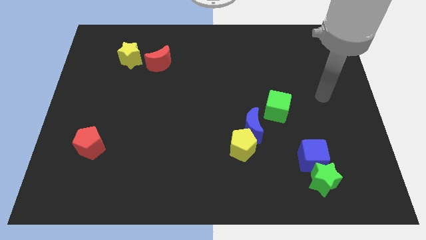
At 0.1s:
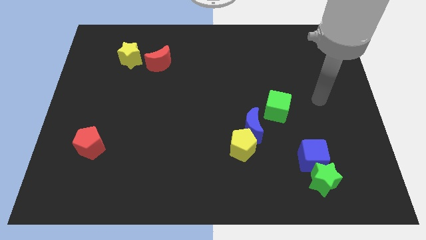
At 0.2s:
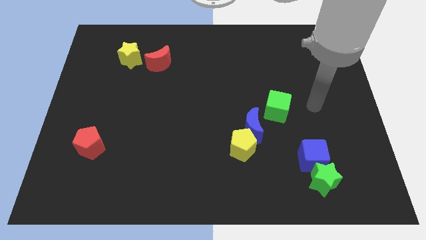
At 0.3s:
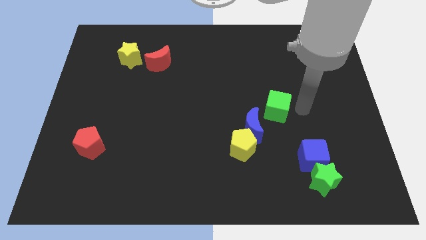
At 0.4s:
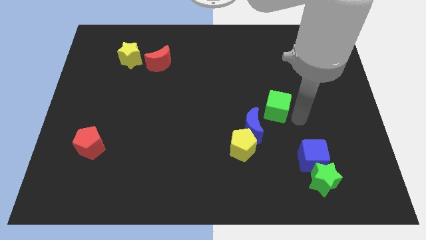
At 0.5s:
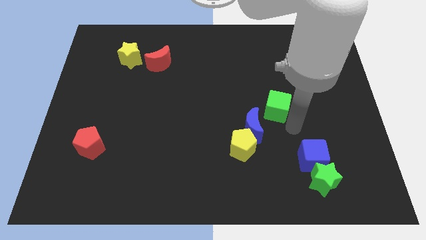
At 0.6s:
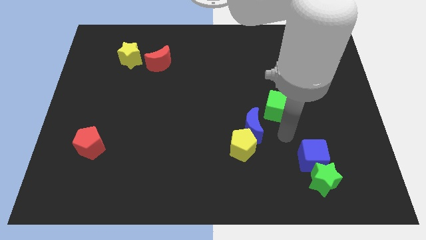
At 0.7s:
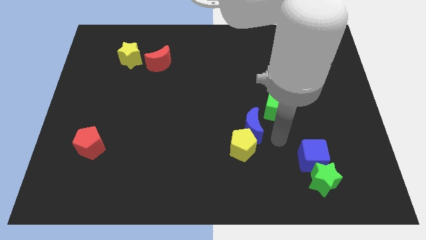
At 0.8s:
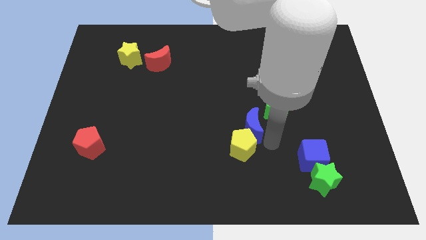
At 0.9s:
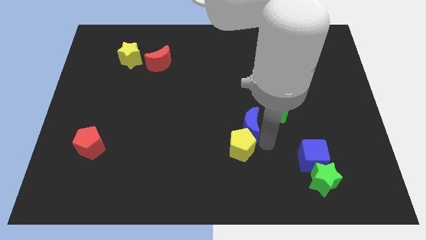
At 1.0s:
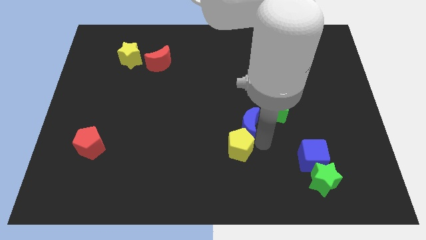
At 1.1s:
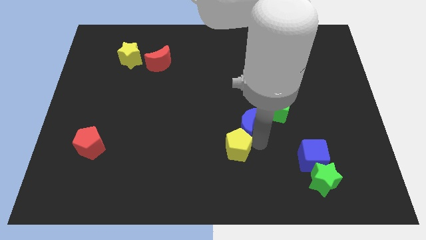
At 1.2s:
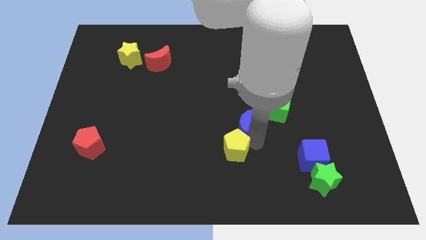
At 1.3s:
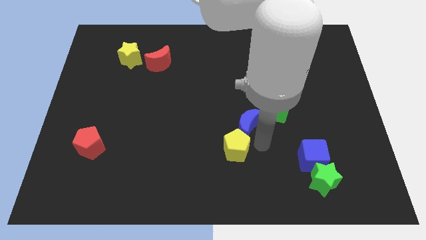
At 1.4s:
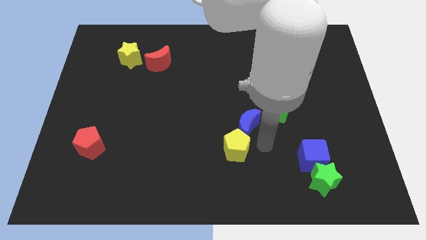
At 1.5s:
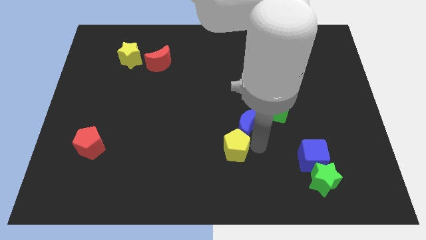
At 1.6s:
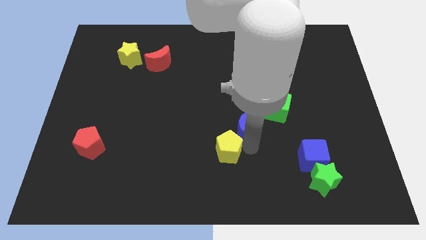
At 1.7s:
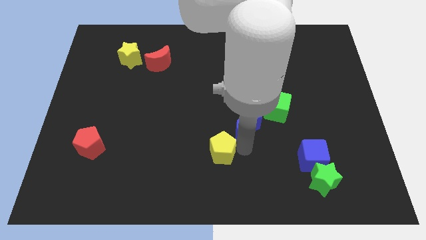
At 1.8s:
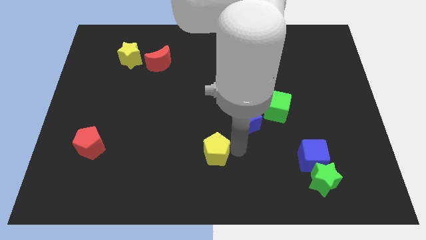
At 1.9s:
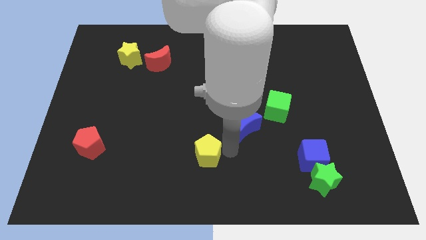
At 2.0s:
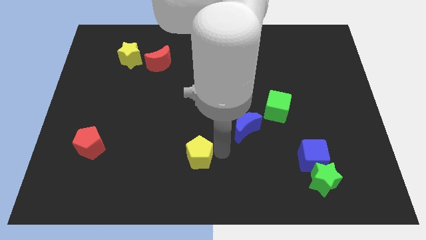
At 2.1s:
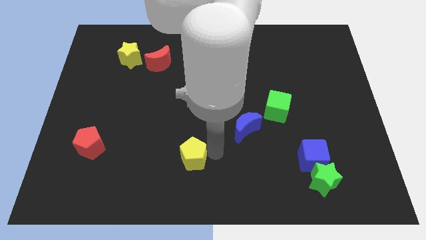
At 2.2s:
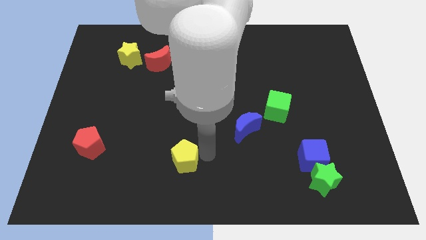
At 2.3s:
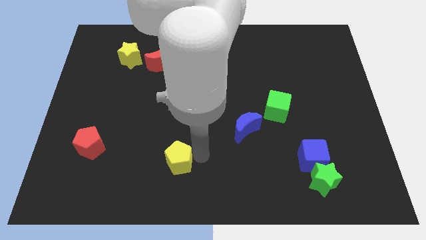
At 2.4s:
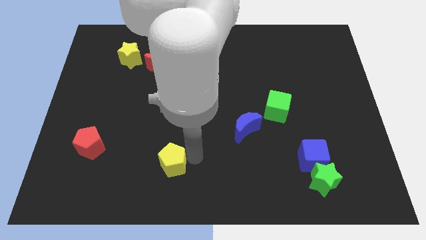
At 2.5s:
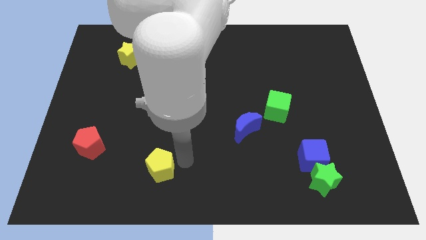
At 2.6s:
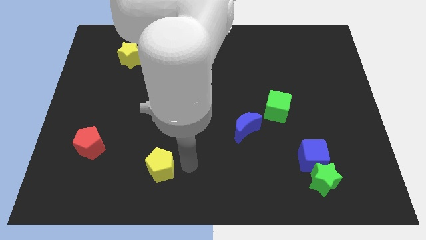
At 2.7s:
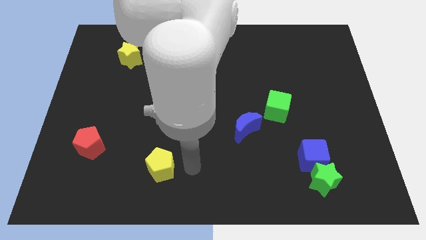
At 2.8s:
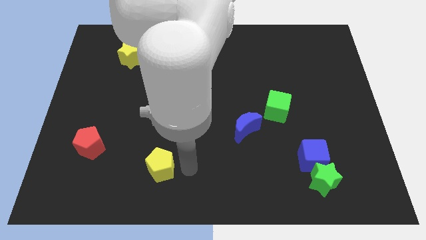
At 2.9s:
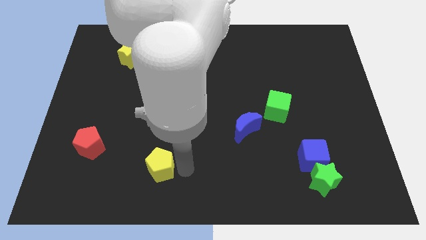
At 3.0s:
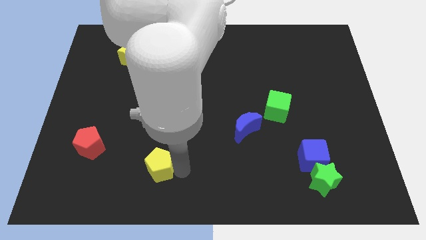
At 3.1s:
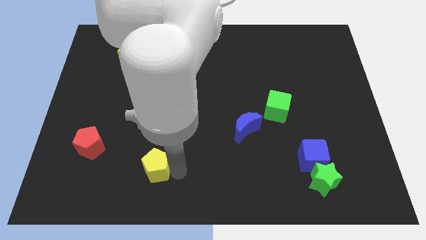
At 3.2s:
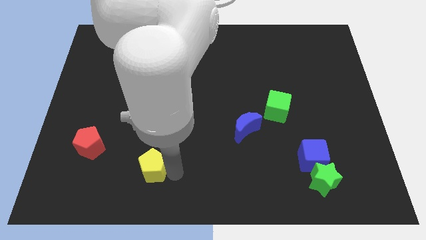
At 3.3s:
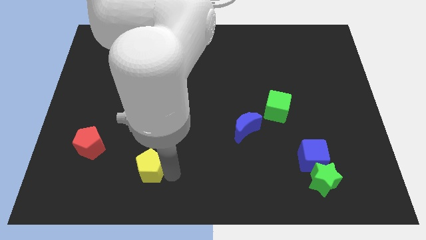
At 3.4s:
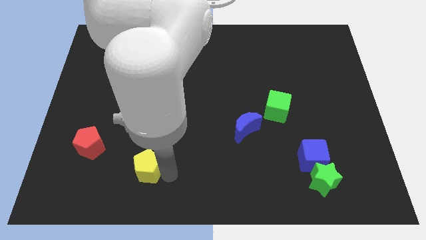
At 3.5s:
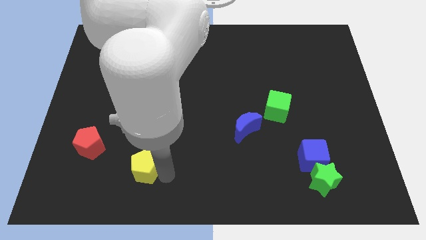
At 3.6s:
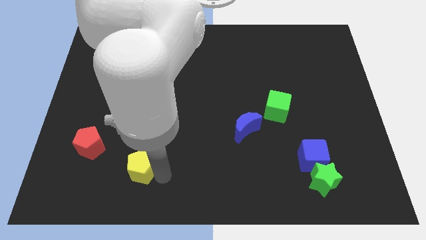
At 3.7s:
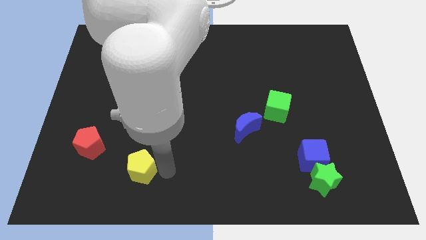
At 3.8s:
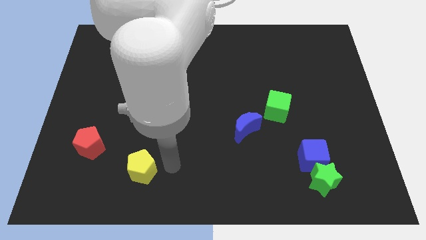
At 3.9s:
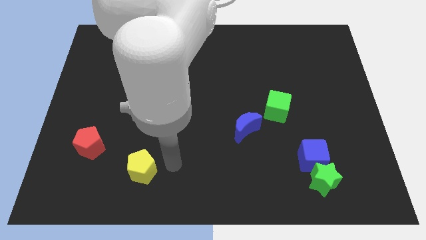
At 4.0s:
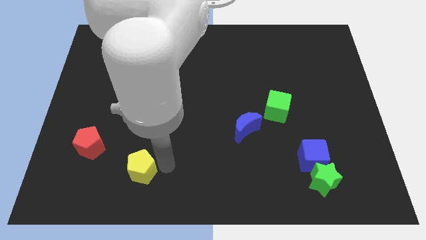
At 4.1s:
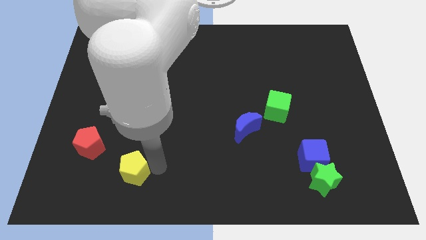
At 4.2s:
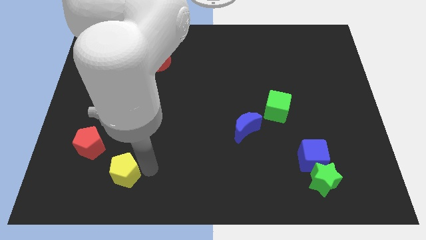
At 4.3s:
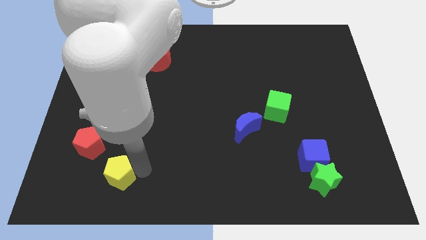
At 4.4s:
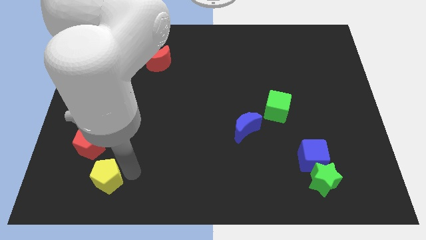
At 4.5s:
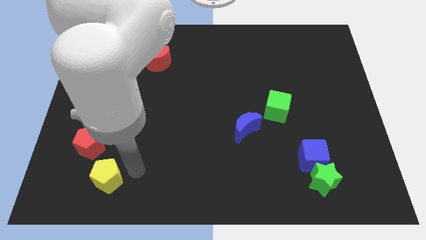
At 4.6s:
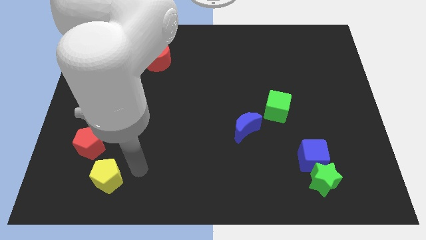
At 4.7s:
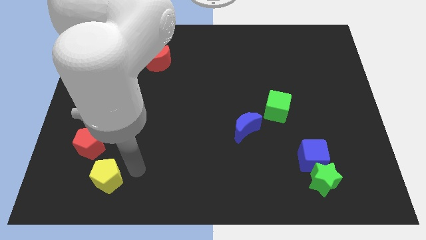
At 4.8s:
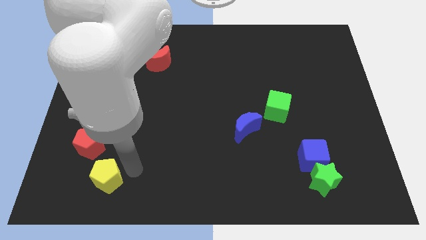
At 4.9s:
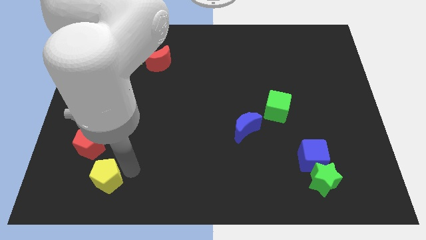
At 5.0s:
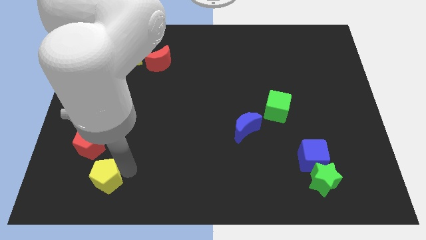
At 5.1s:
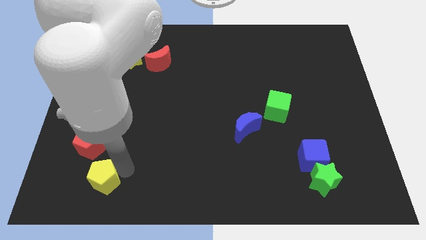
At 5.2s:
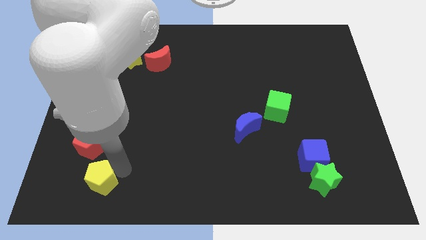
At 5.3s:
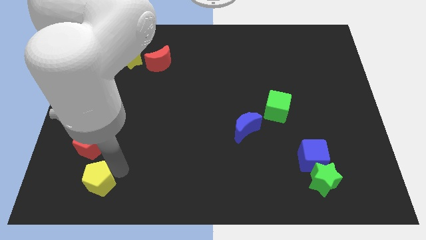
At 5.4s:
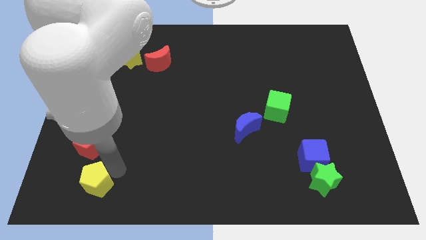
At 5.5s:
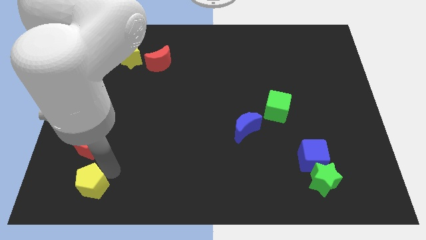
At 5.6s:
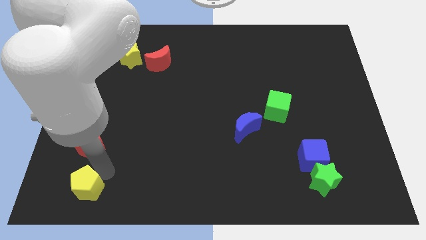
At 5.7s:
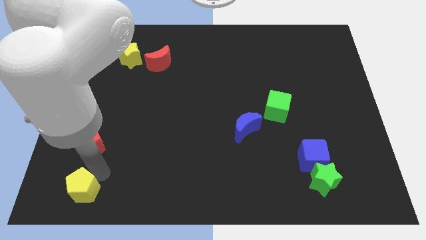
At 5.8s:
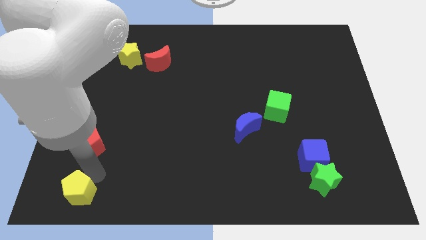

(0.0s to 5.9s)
slide the yellow pentagon to the bottom left corner
